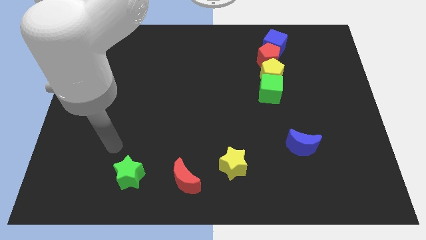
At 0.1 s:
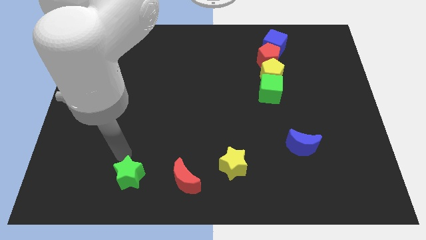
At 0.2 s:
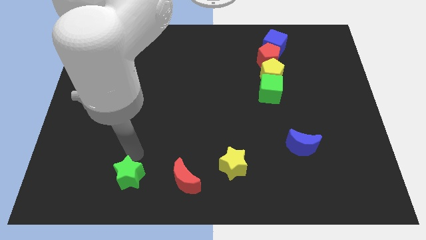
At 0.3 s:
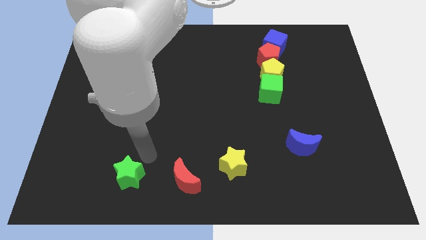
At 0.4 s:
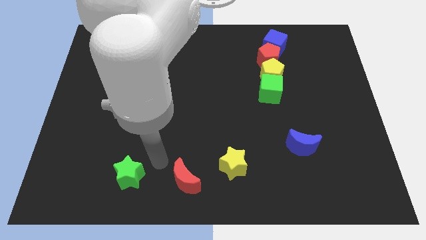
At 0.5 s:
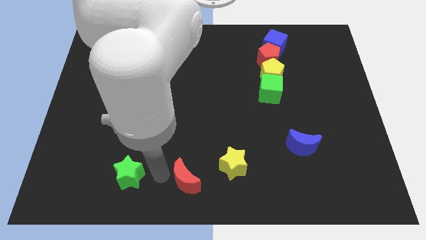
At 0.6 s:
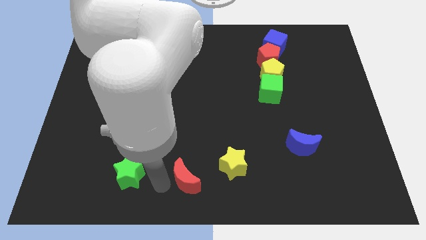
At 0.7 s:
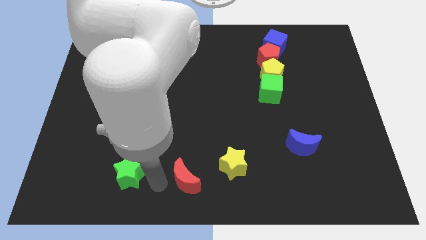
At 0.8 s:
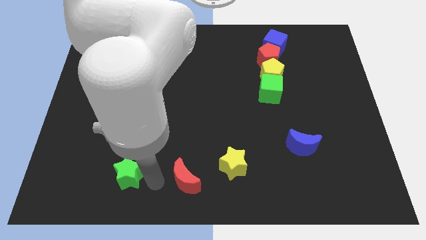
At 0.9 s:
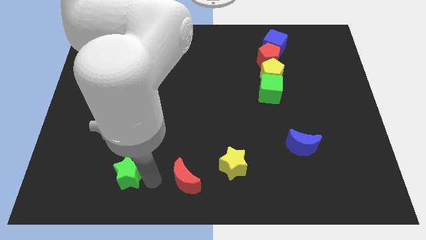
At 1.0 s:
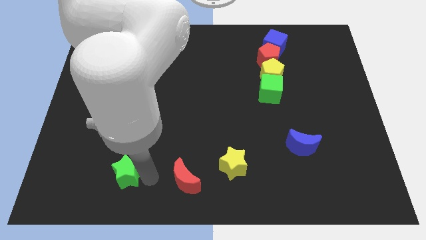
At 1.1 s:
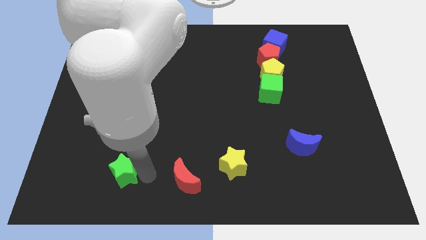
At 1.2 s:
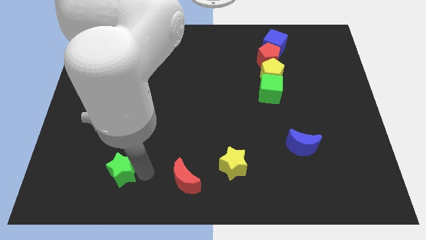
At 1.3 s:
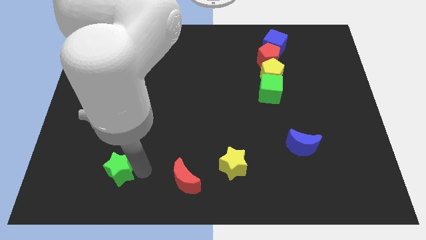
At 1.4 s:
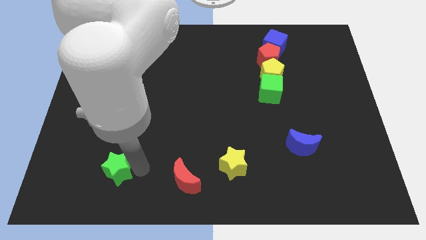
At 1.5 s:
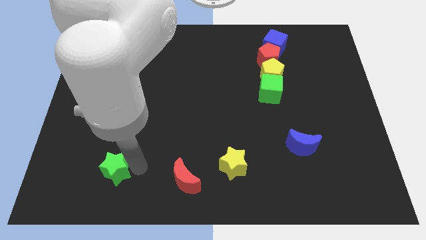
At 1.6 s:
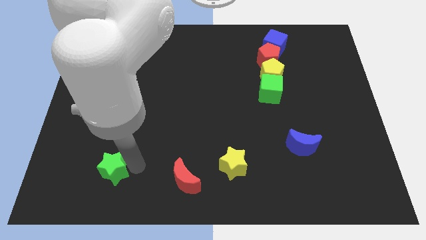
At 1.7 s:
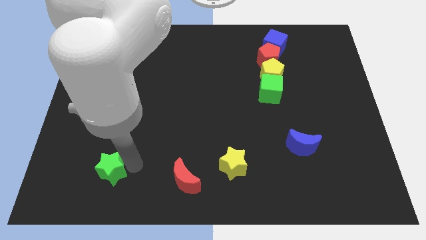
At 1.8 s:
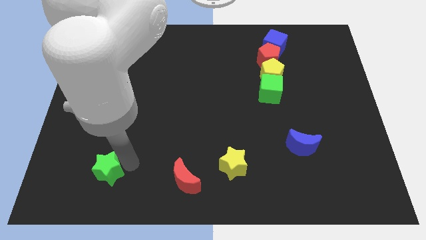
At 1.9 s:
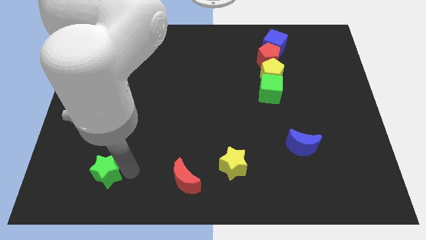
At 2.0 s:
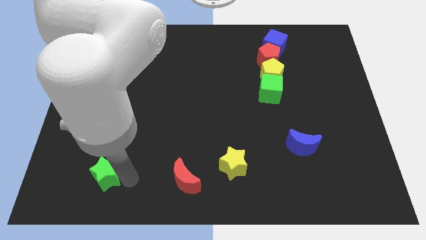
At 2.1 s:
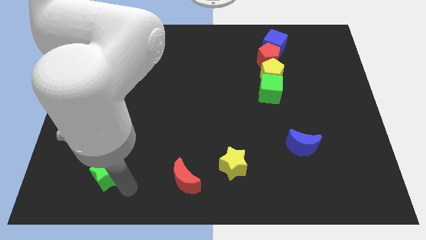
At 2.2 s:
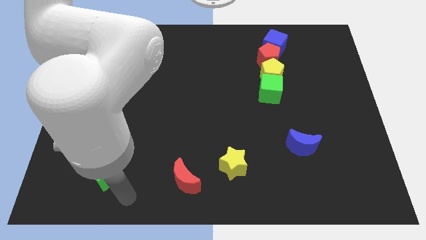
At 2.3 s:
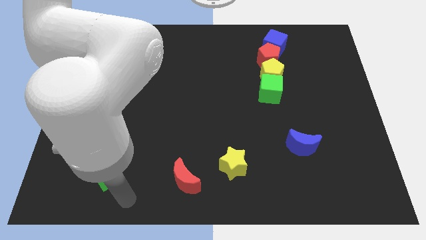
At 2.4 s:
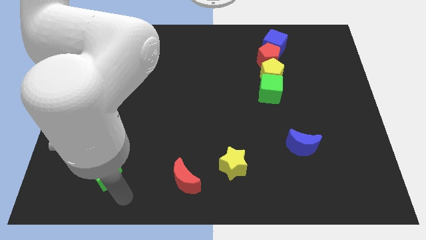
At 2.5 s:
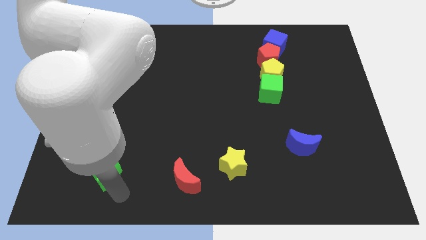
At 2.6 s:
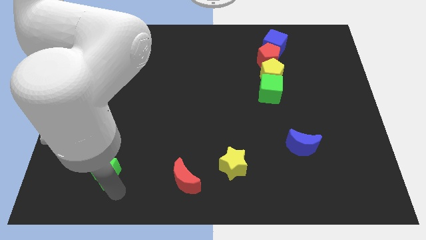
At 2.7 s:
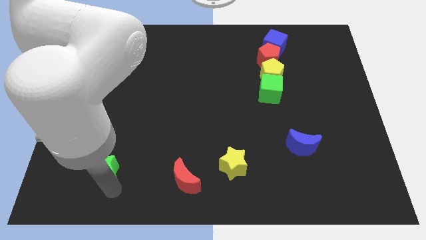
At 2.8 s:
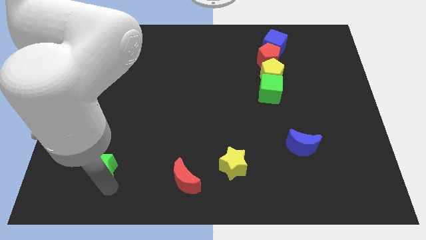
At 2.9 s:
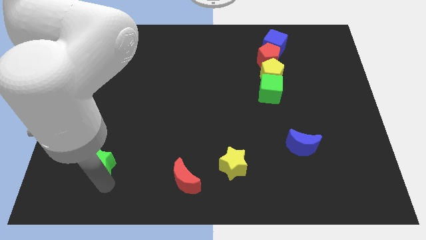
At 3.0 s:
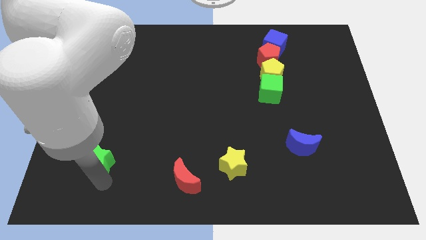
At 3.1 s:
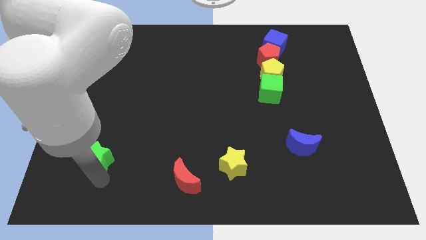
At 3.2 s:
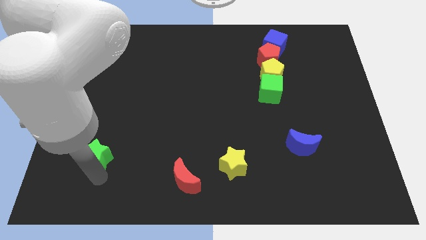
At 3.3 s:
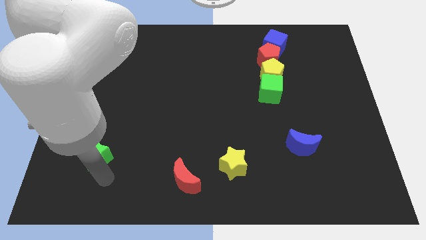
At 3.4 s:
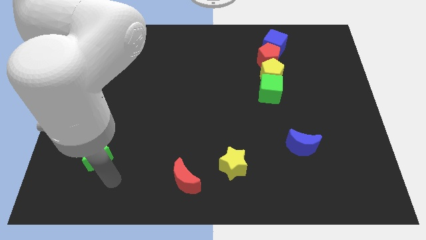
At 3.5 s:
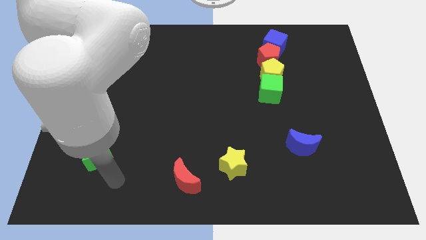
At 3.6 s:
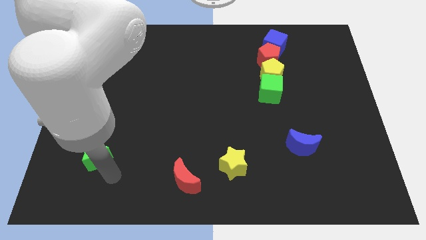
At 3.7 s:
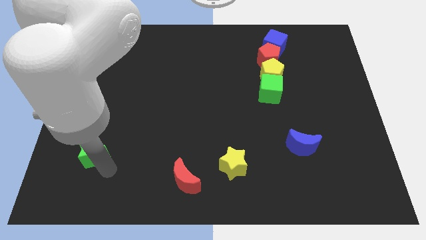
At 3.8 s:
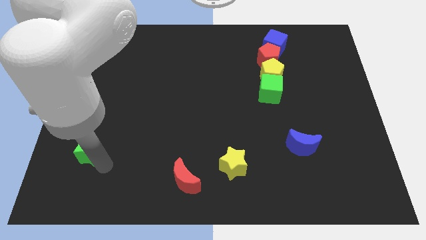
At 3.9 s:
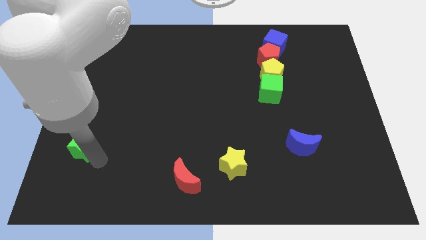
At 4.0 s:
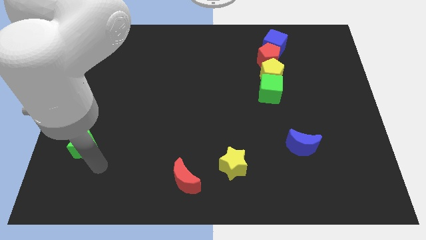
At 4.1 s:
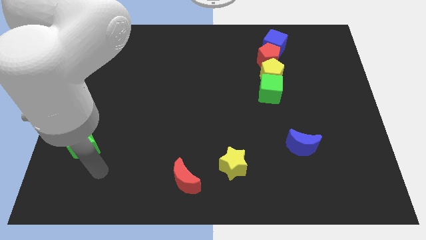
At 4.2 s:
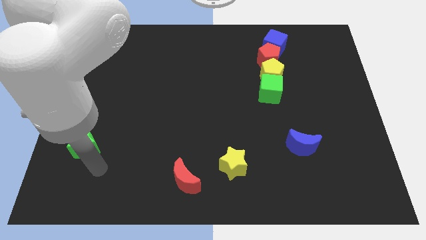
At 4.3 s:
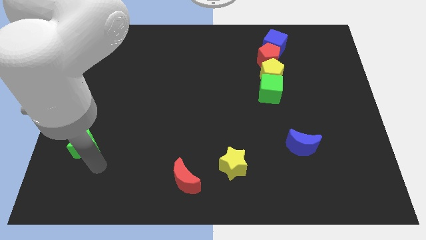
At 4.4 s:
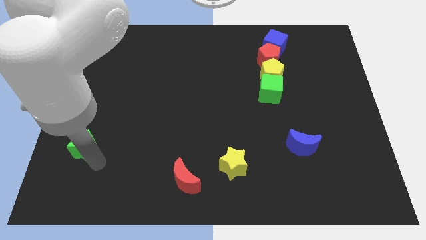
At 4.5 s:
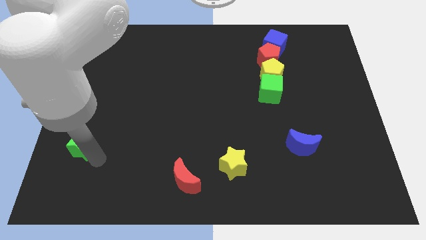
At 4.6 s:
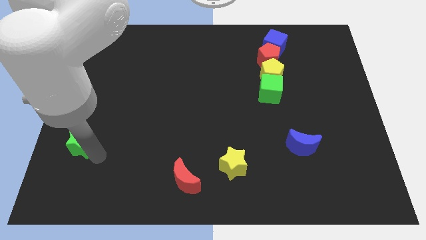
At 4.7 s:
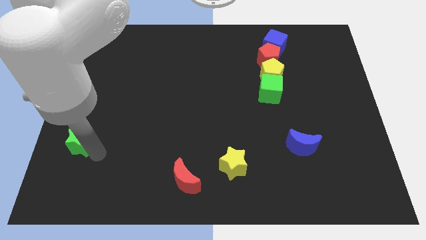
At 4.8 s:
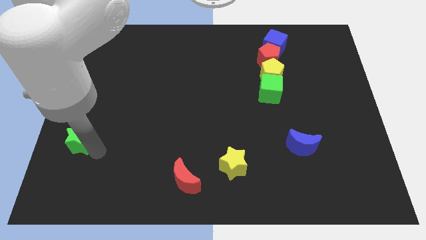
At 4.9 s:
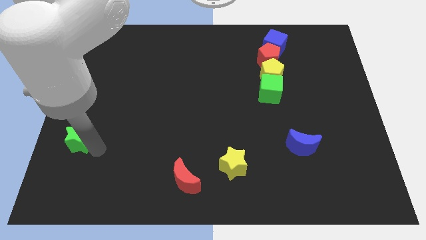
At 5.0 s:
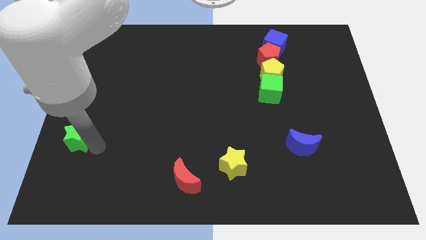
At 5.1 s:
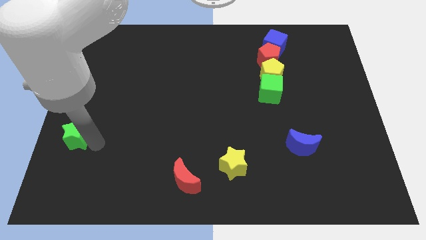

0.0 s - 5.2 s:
push the green star to the center left

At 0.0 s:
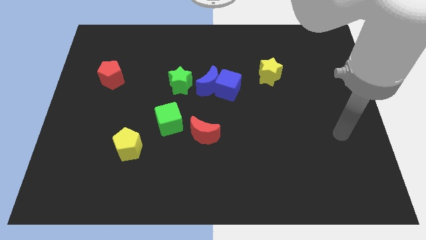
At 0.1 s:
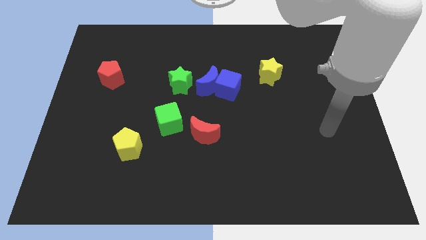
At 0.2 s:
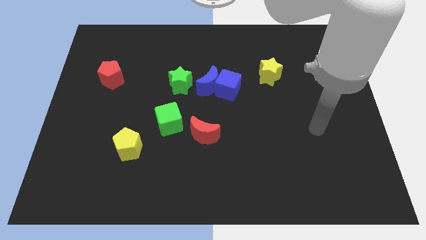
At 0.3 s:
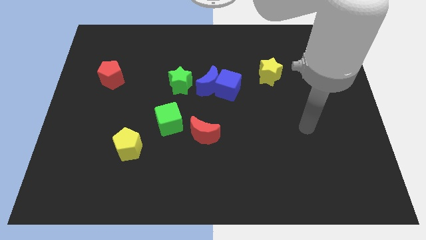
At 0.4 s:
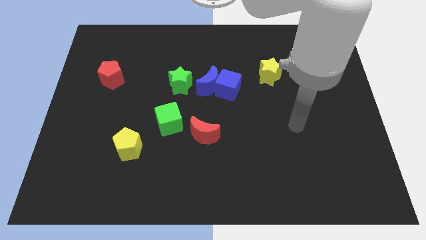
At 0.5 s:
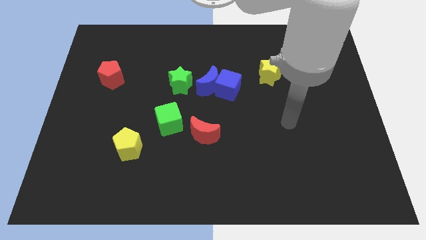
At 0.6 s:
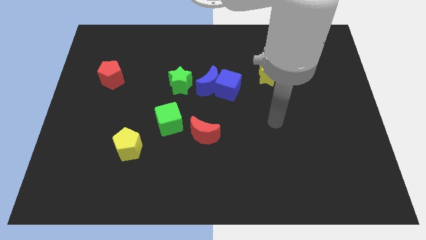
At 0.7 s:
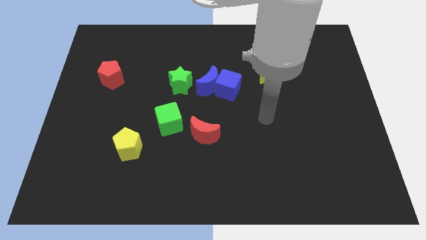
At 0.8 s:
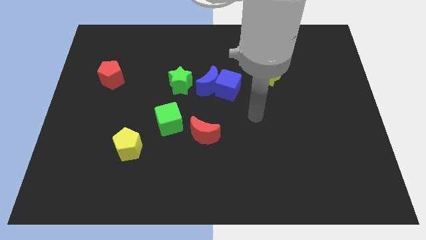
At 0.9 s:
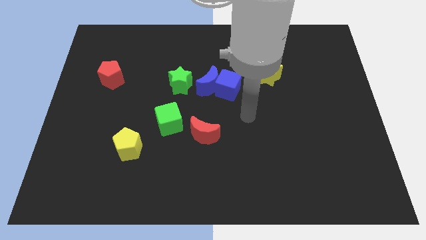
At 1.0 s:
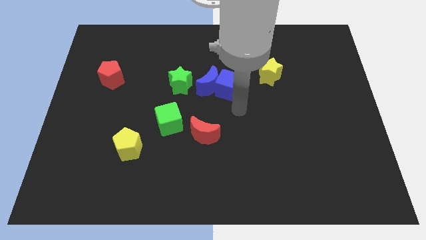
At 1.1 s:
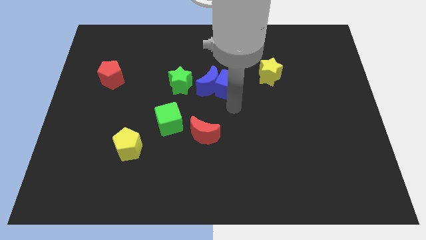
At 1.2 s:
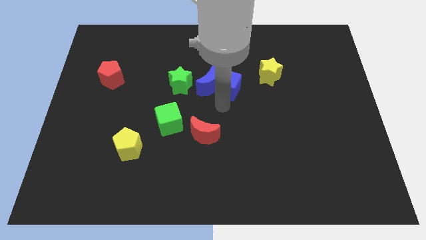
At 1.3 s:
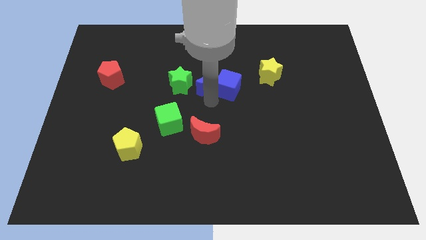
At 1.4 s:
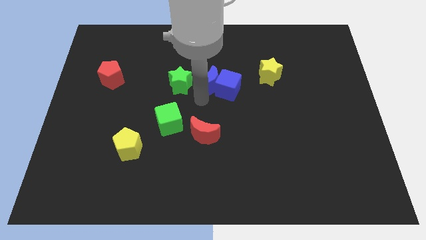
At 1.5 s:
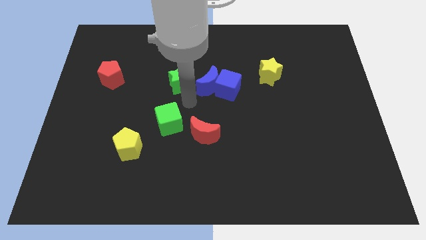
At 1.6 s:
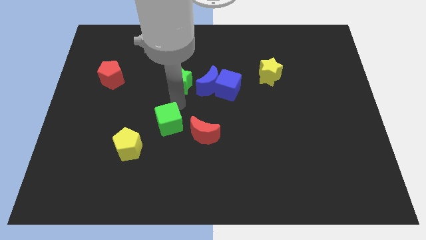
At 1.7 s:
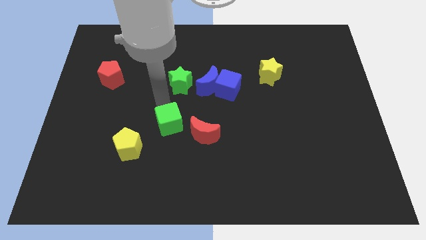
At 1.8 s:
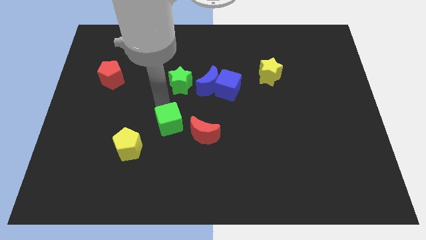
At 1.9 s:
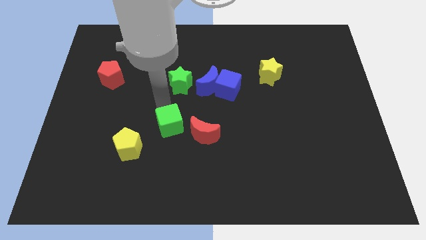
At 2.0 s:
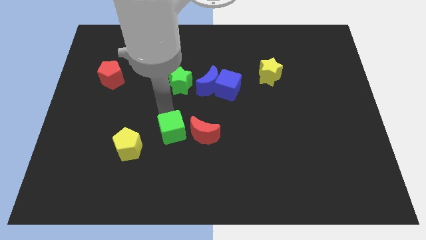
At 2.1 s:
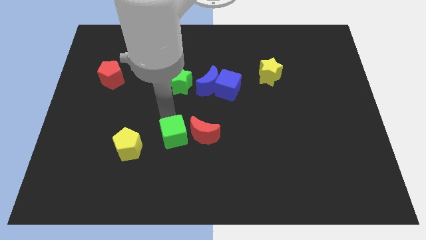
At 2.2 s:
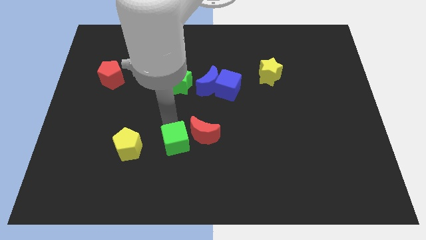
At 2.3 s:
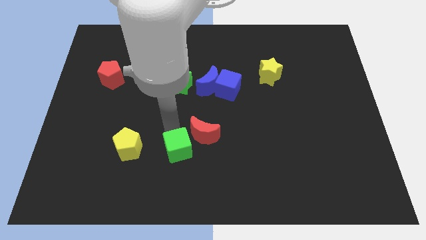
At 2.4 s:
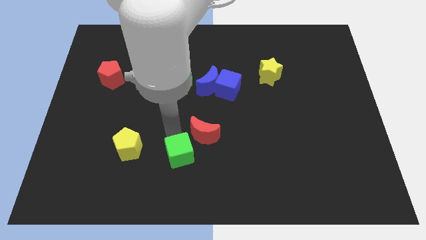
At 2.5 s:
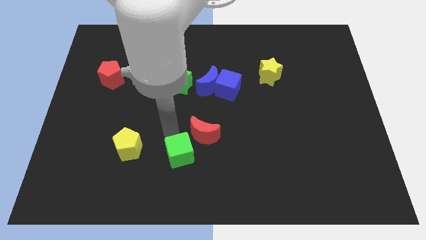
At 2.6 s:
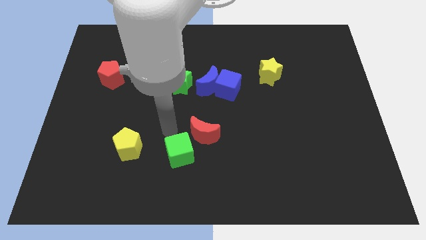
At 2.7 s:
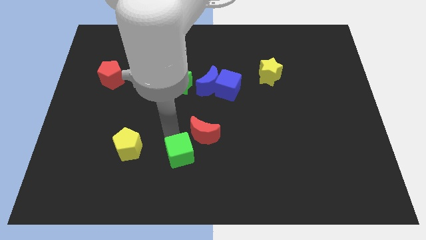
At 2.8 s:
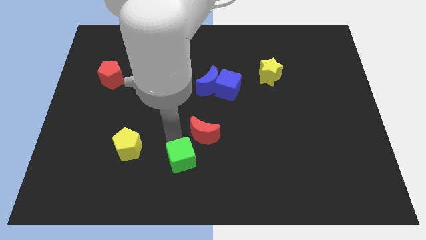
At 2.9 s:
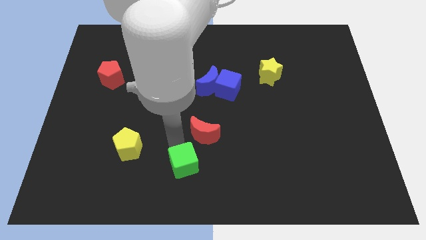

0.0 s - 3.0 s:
slide the green cube to the bottom
